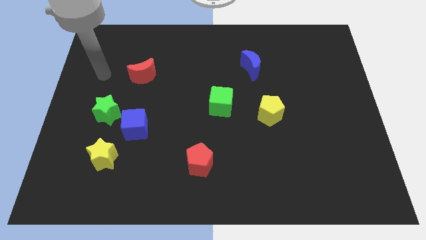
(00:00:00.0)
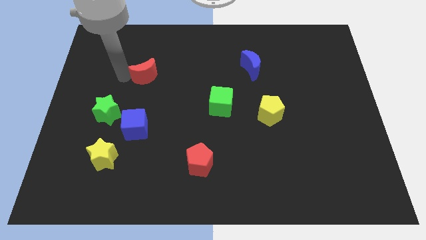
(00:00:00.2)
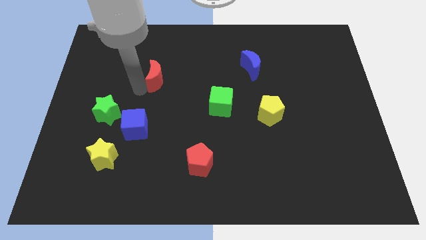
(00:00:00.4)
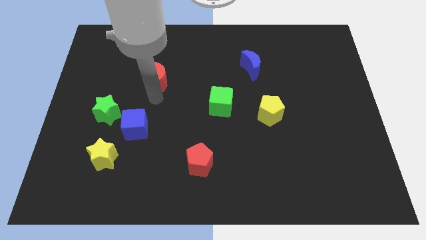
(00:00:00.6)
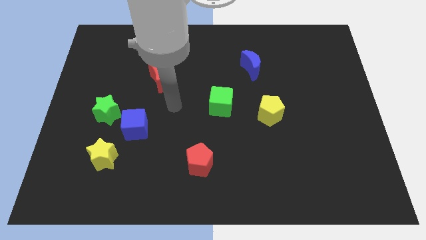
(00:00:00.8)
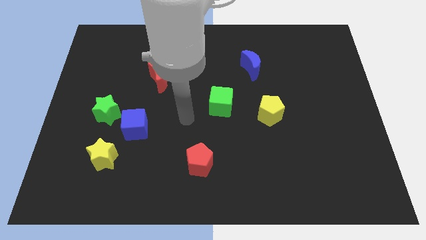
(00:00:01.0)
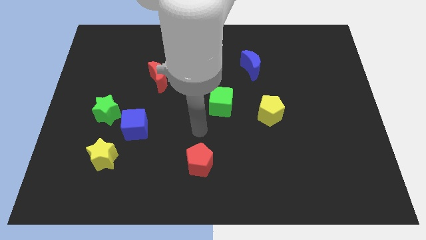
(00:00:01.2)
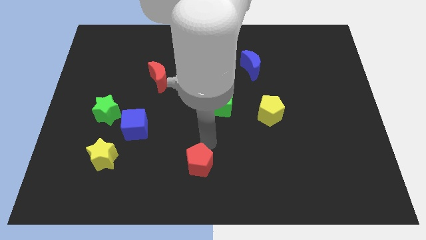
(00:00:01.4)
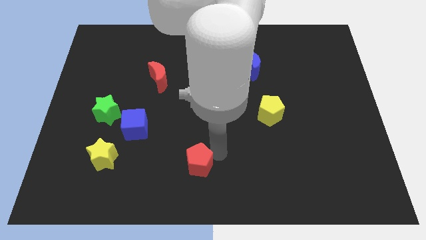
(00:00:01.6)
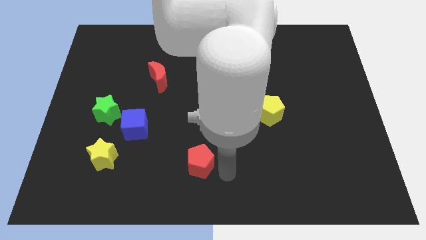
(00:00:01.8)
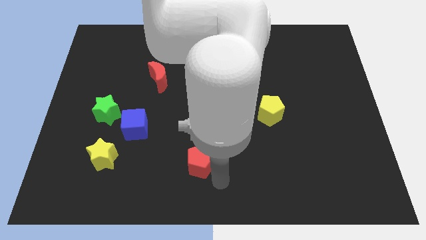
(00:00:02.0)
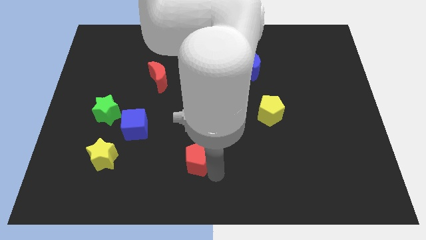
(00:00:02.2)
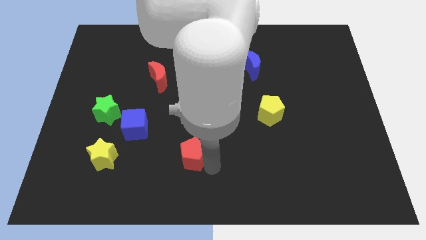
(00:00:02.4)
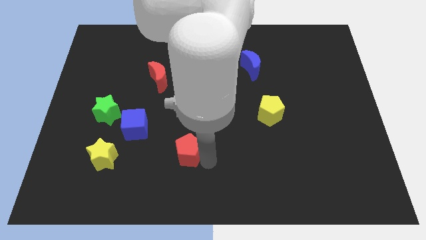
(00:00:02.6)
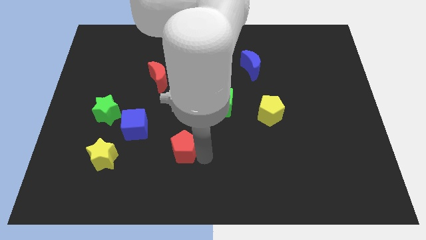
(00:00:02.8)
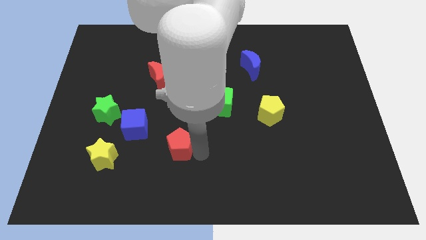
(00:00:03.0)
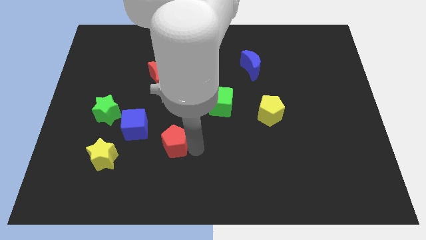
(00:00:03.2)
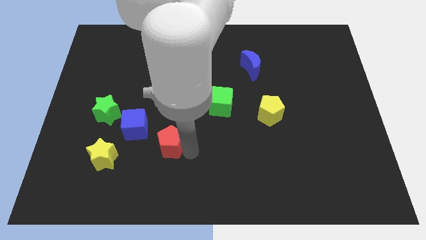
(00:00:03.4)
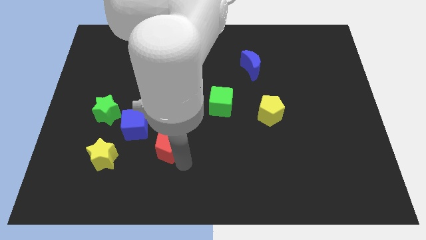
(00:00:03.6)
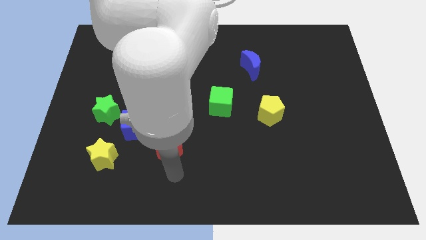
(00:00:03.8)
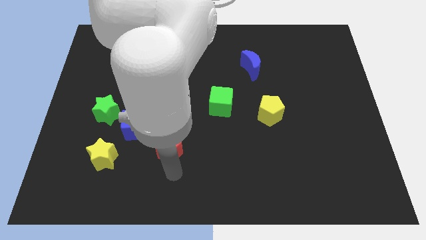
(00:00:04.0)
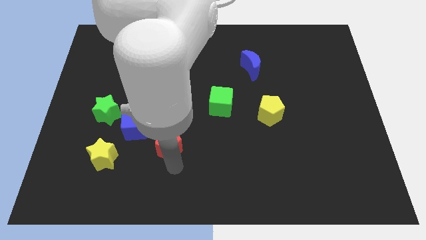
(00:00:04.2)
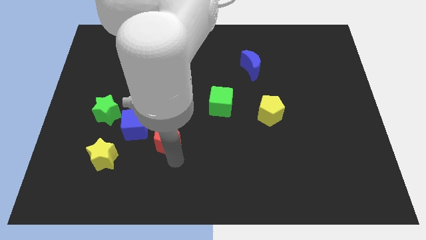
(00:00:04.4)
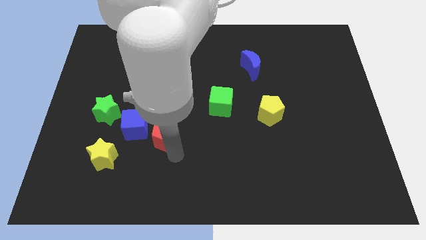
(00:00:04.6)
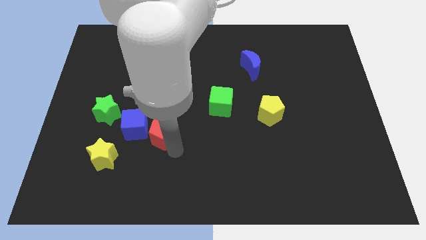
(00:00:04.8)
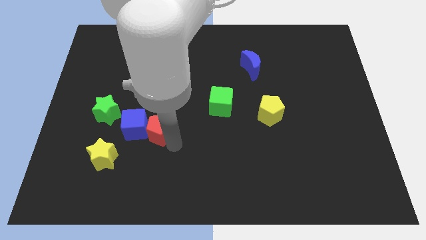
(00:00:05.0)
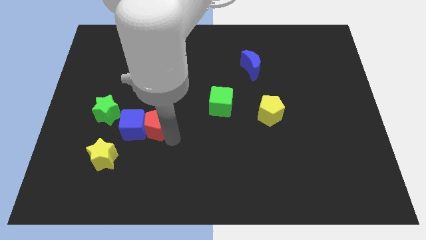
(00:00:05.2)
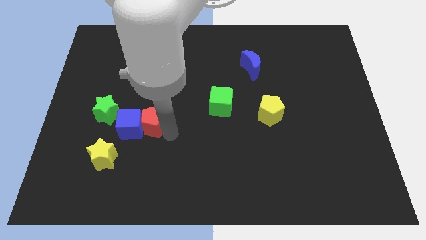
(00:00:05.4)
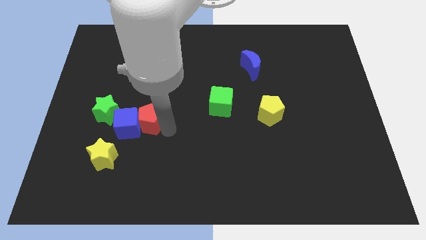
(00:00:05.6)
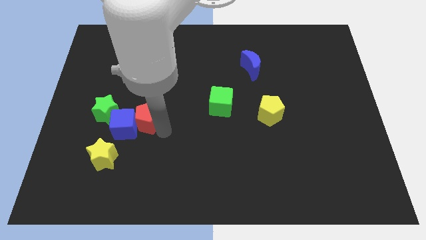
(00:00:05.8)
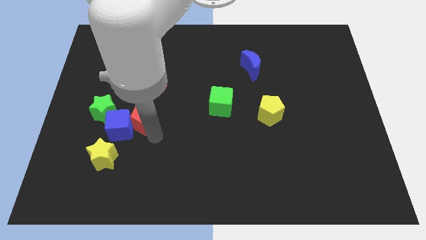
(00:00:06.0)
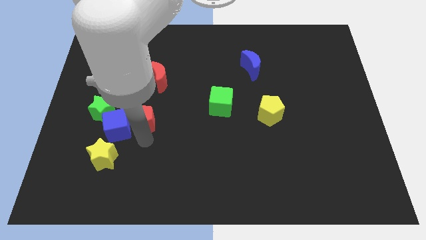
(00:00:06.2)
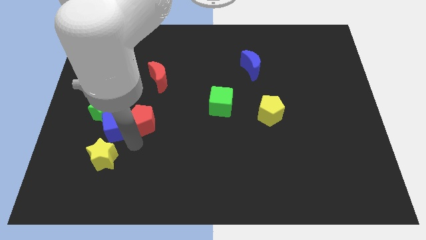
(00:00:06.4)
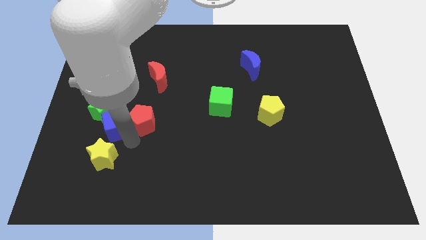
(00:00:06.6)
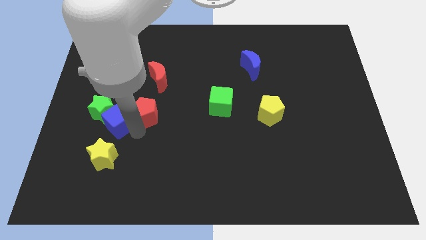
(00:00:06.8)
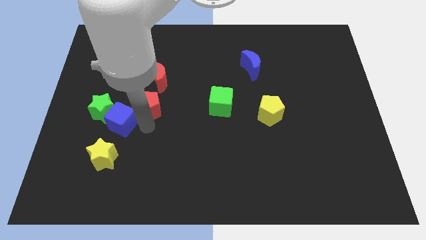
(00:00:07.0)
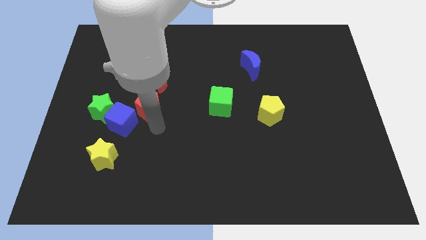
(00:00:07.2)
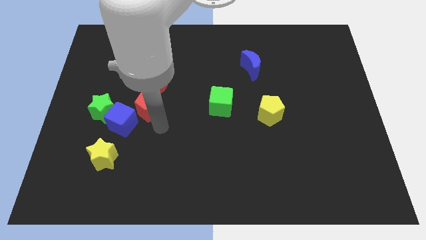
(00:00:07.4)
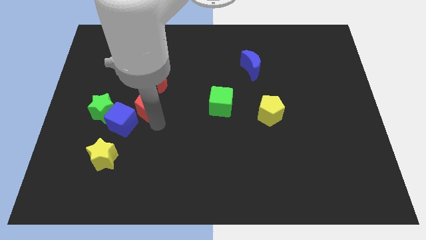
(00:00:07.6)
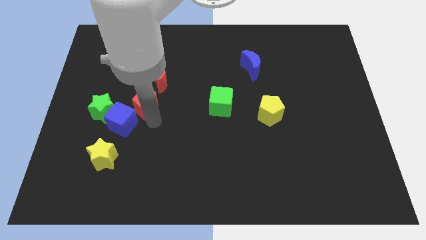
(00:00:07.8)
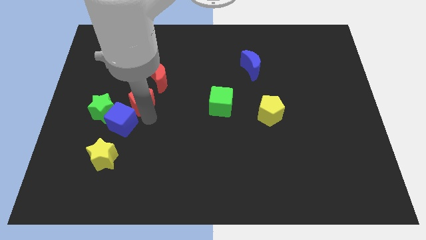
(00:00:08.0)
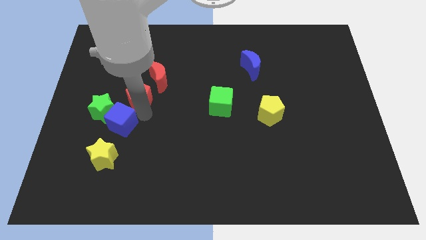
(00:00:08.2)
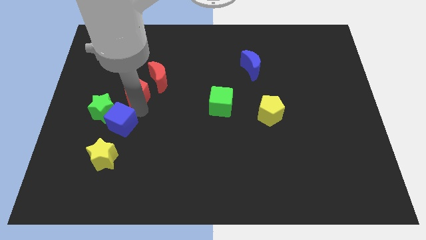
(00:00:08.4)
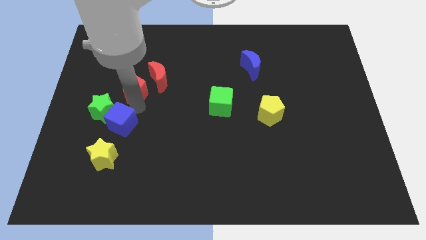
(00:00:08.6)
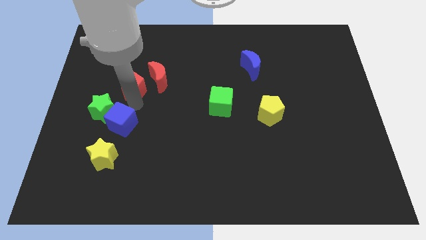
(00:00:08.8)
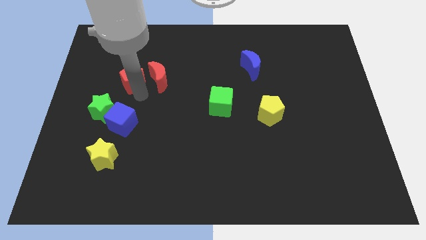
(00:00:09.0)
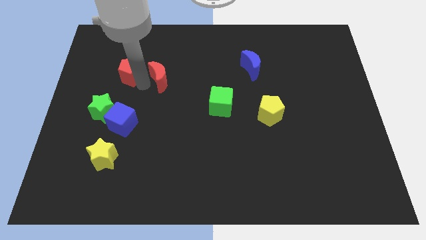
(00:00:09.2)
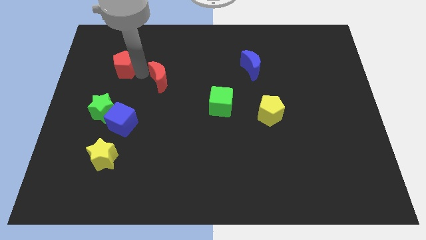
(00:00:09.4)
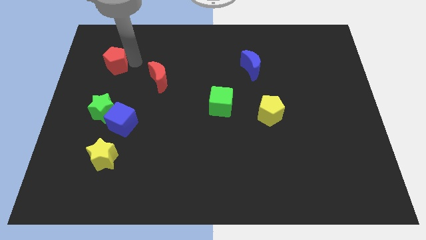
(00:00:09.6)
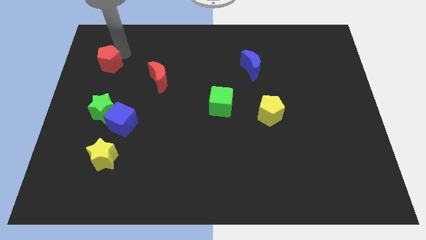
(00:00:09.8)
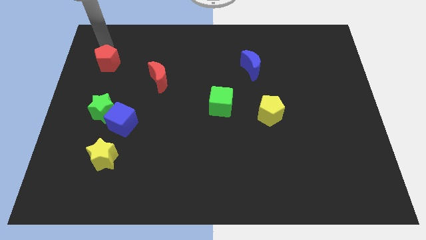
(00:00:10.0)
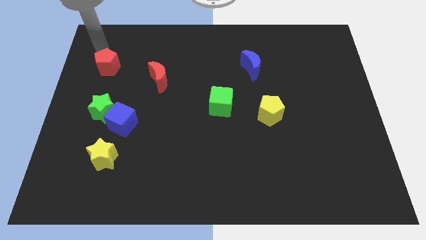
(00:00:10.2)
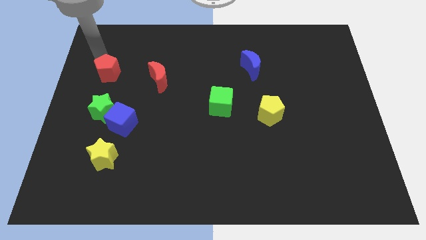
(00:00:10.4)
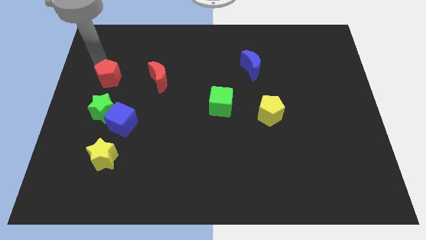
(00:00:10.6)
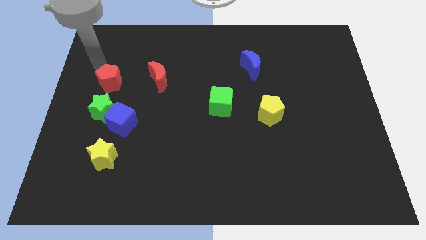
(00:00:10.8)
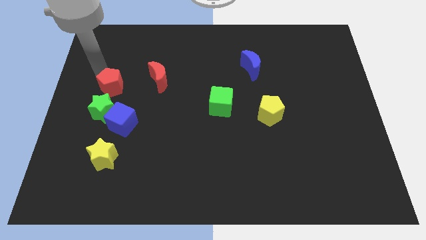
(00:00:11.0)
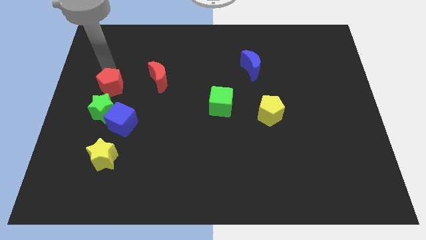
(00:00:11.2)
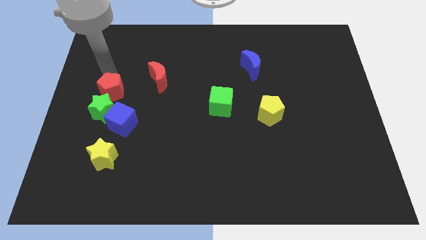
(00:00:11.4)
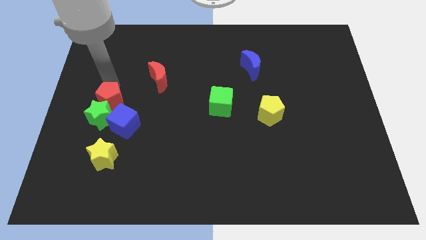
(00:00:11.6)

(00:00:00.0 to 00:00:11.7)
move the red pentagon to the top side of the yellow star

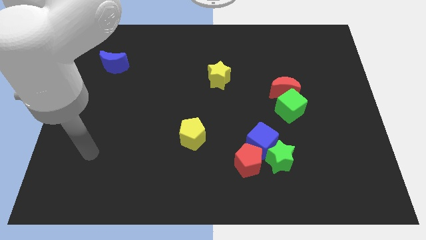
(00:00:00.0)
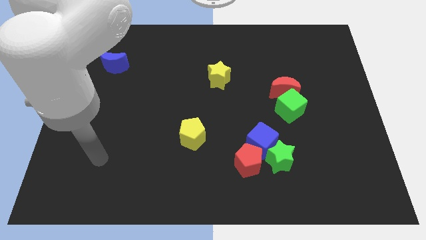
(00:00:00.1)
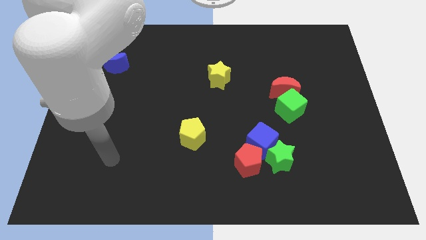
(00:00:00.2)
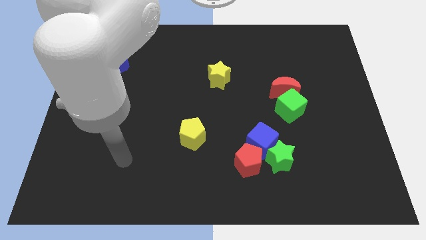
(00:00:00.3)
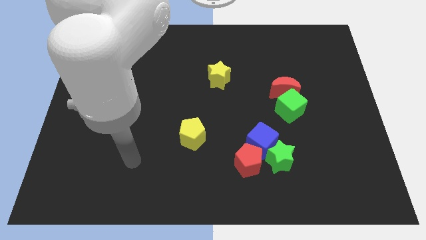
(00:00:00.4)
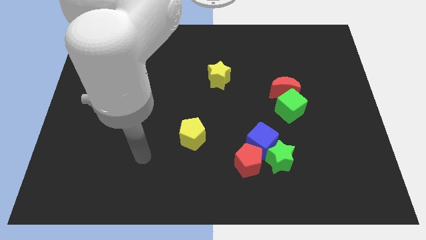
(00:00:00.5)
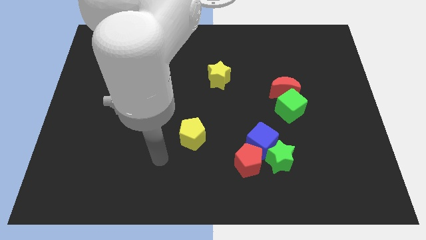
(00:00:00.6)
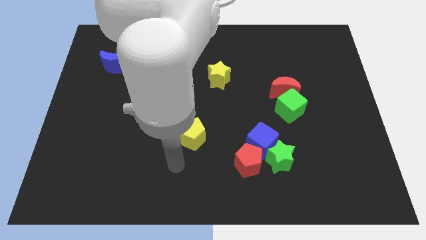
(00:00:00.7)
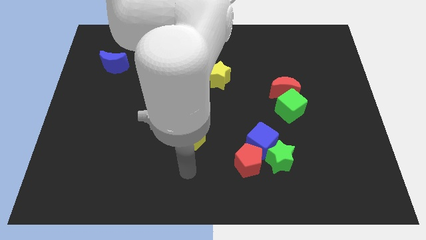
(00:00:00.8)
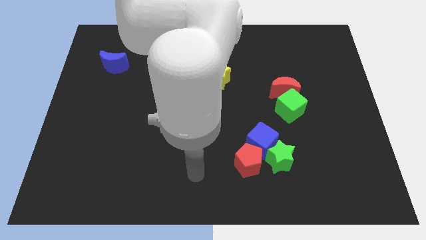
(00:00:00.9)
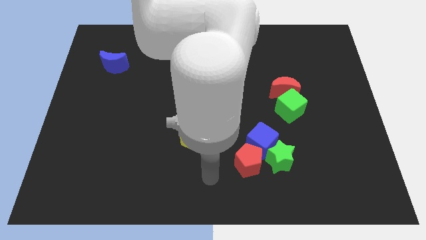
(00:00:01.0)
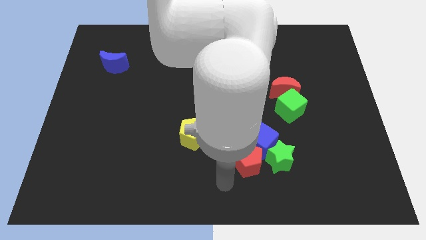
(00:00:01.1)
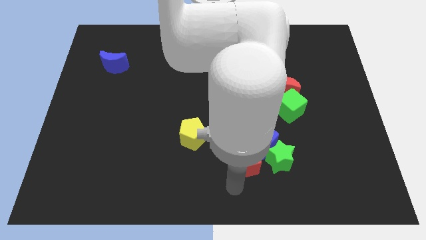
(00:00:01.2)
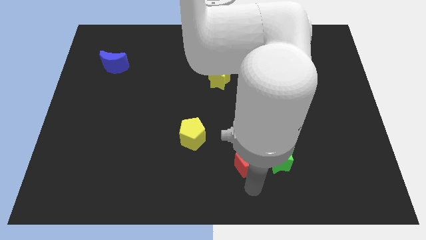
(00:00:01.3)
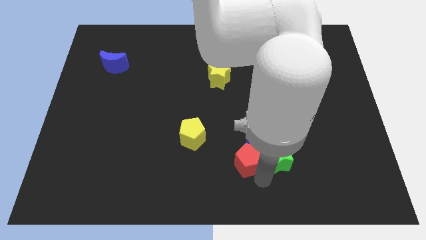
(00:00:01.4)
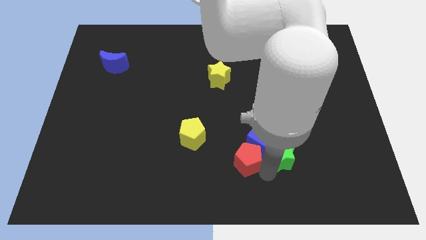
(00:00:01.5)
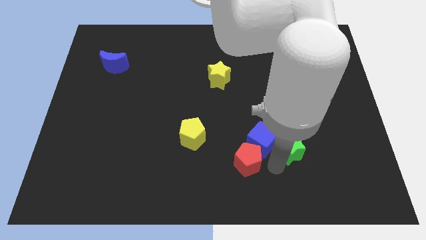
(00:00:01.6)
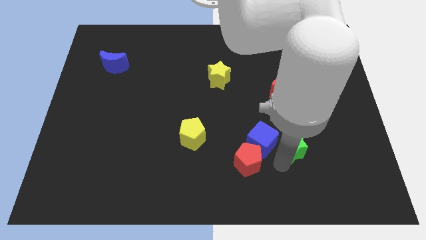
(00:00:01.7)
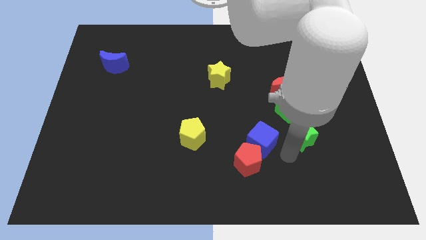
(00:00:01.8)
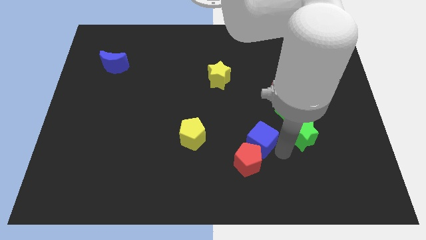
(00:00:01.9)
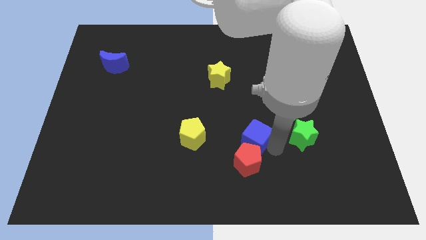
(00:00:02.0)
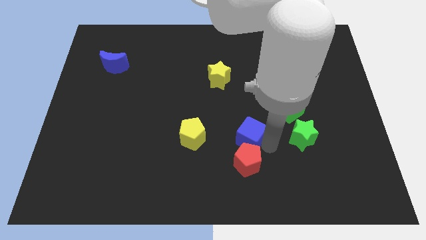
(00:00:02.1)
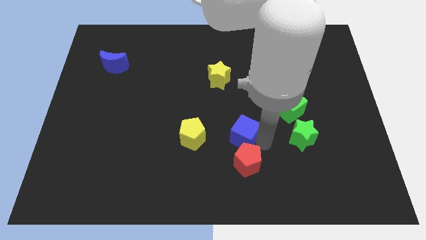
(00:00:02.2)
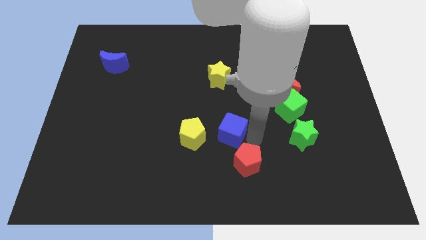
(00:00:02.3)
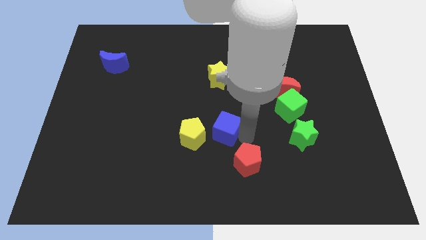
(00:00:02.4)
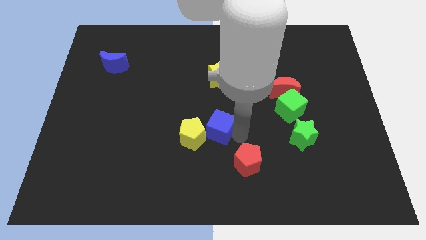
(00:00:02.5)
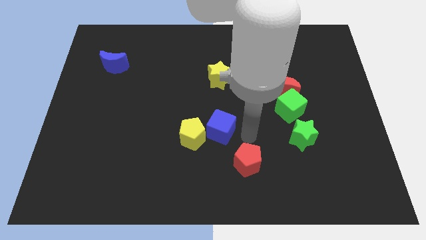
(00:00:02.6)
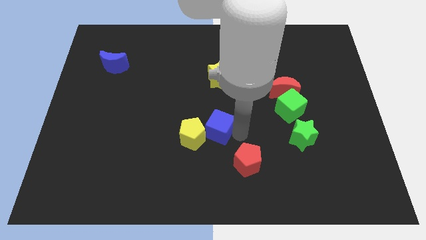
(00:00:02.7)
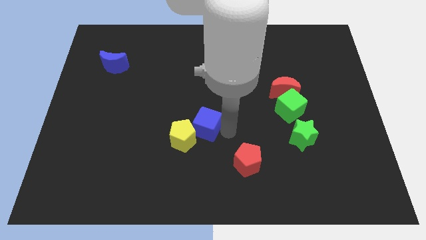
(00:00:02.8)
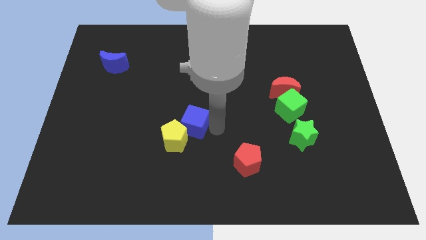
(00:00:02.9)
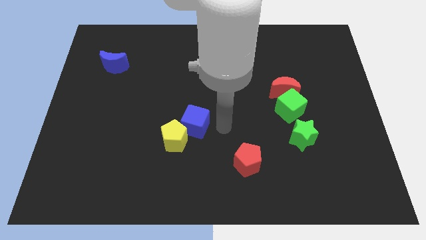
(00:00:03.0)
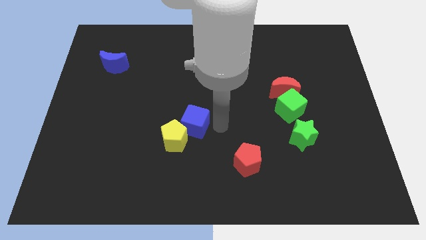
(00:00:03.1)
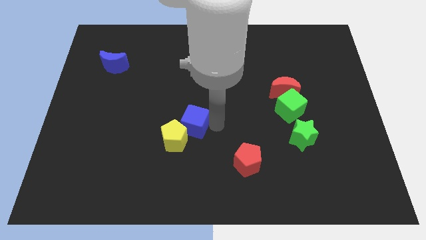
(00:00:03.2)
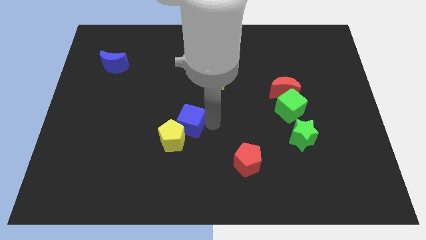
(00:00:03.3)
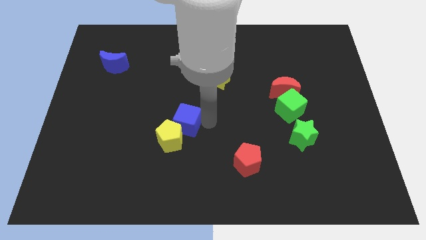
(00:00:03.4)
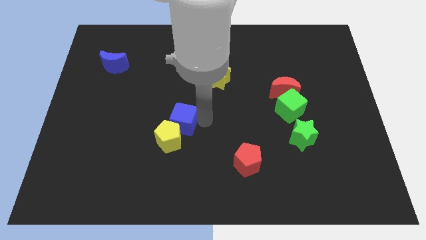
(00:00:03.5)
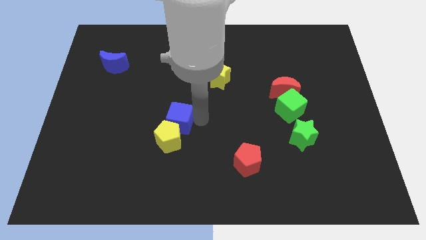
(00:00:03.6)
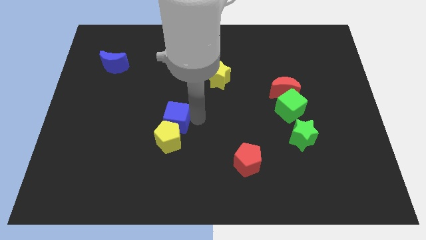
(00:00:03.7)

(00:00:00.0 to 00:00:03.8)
put the blue cube to the top left side of the yellow pentagon
